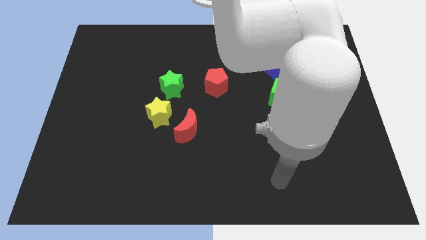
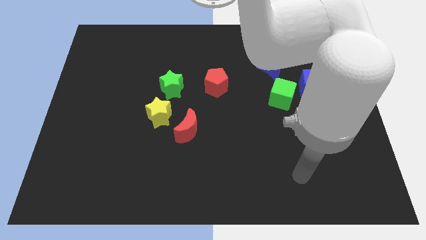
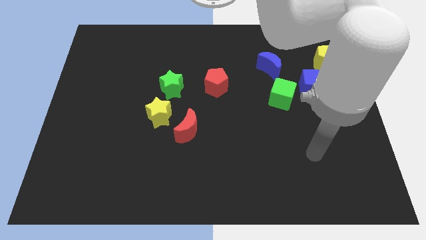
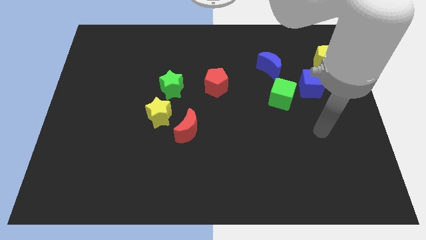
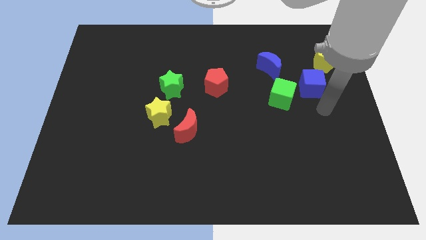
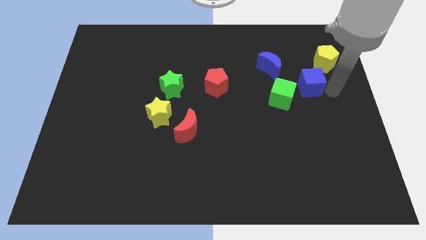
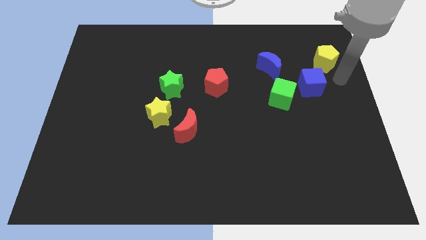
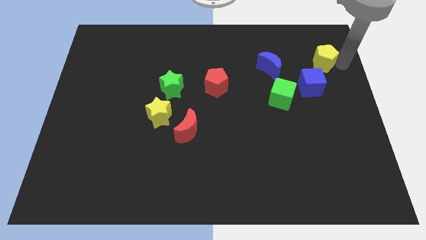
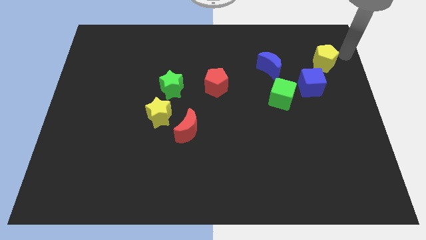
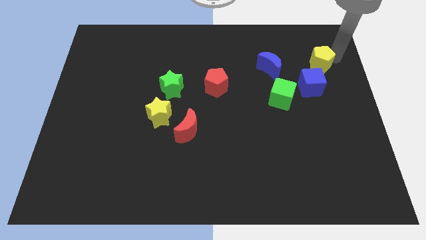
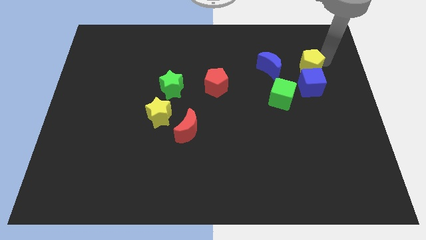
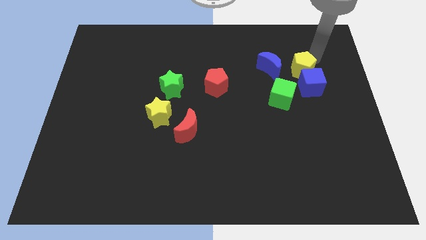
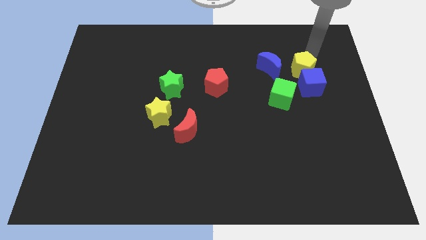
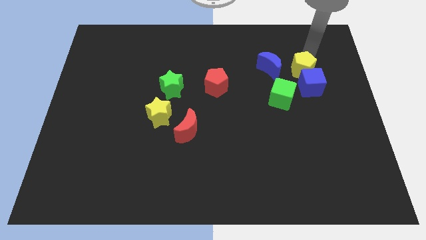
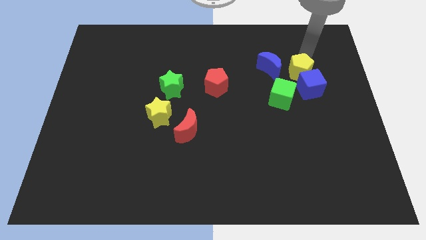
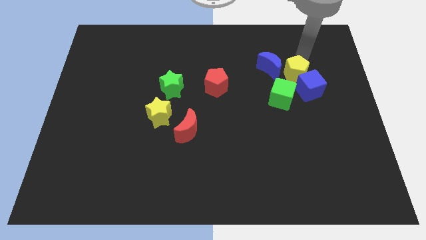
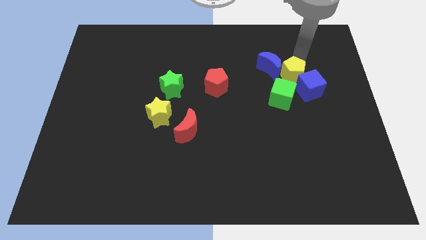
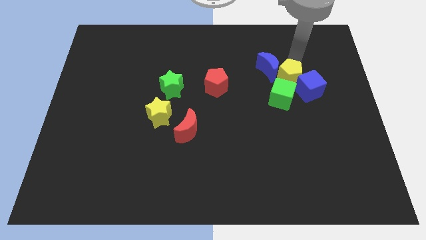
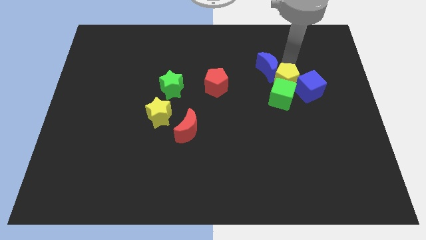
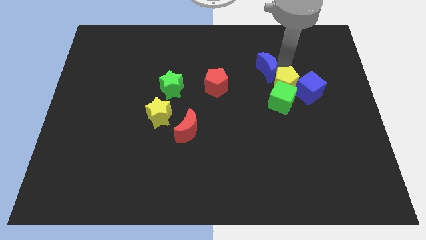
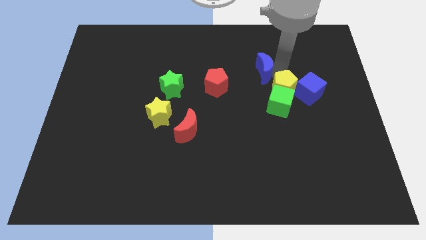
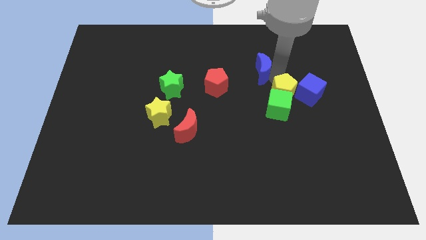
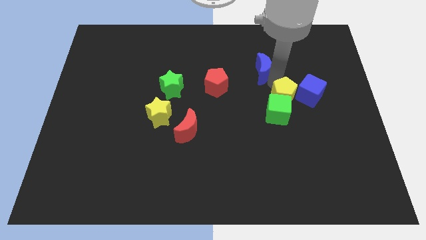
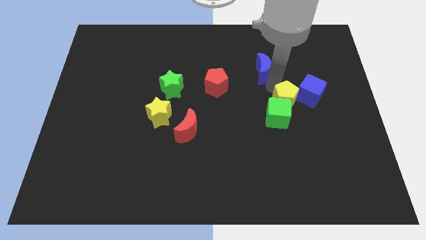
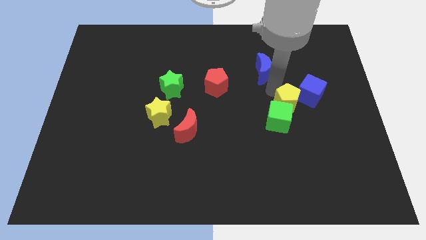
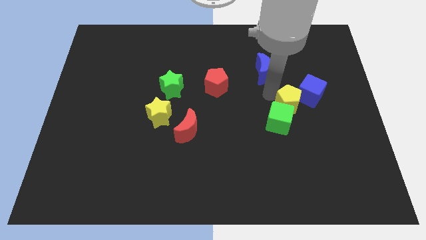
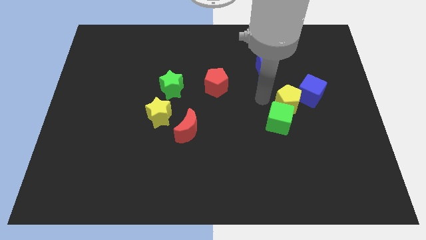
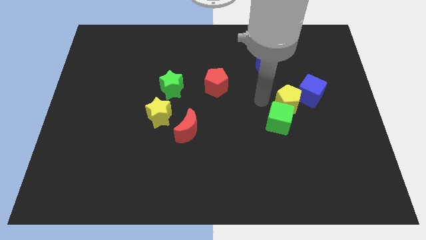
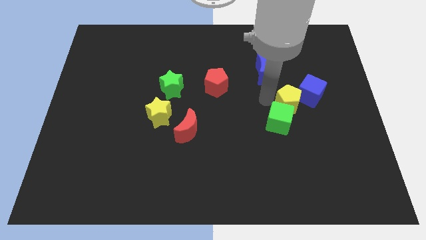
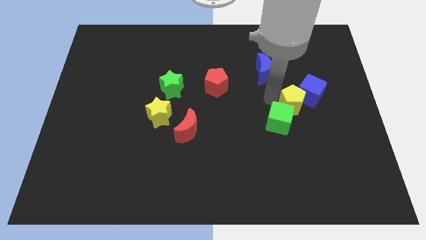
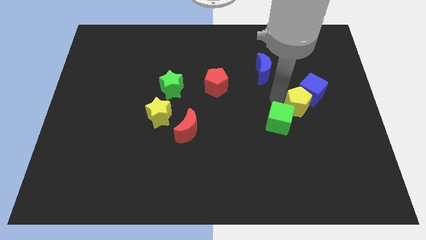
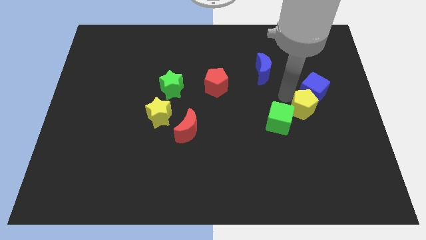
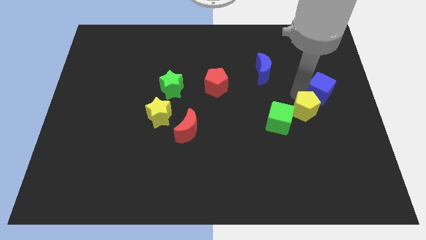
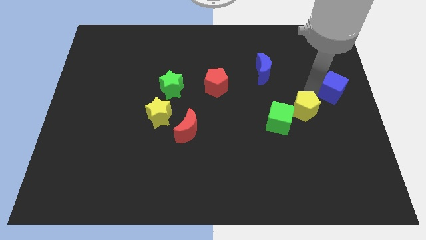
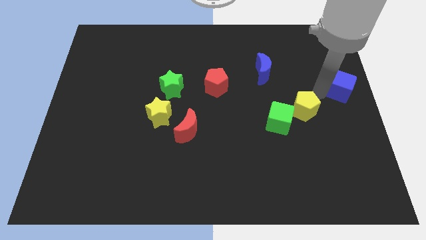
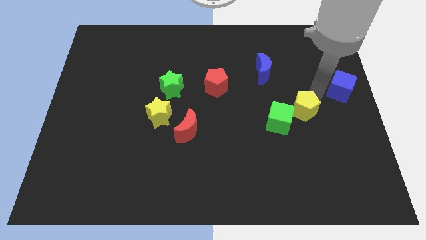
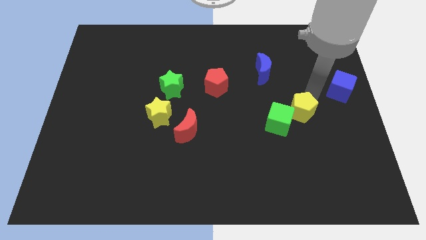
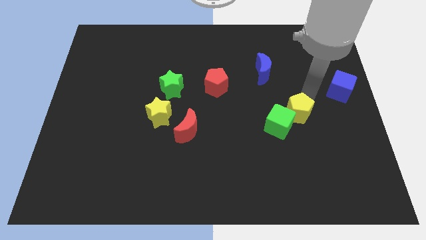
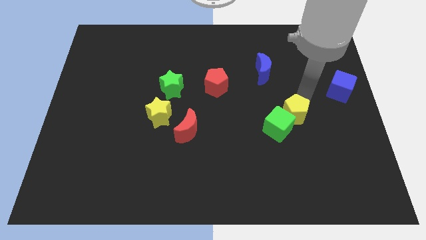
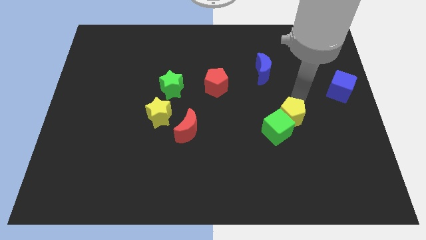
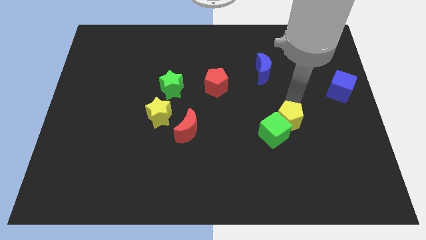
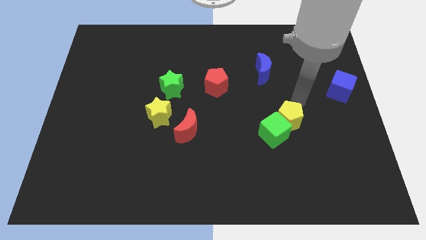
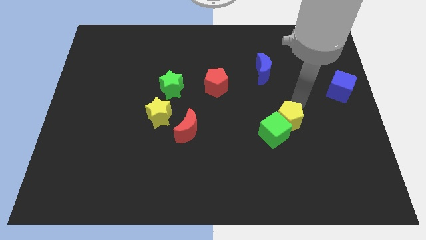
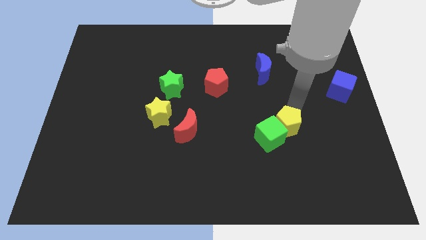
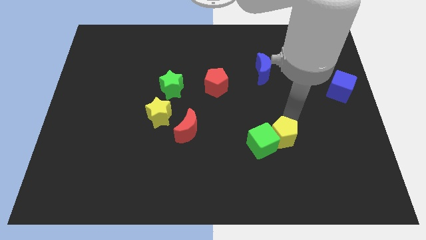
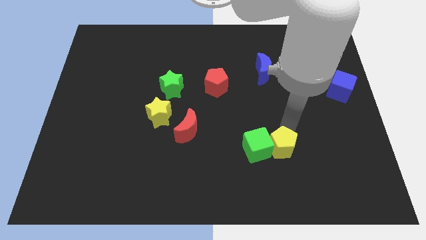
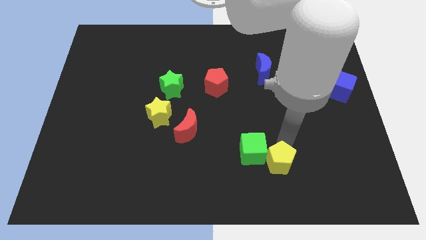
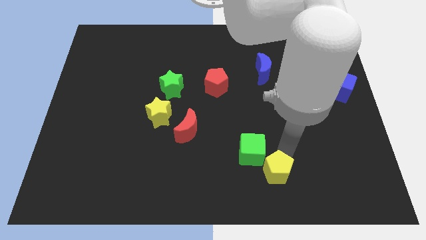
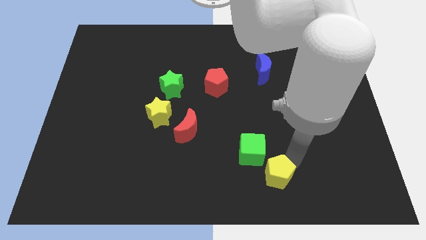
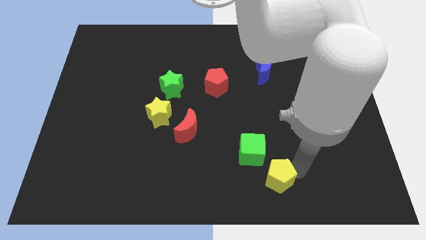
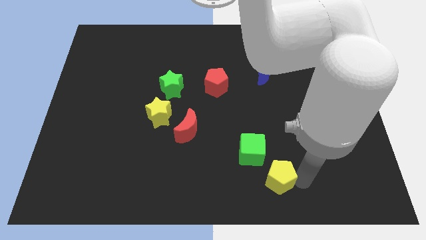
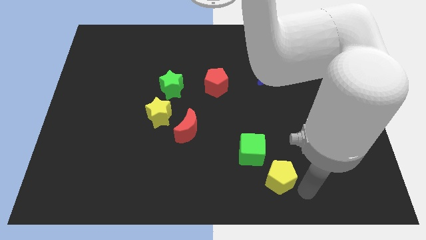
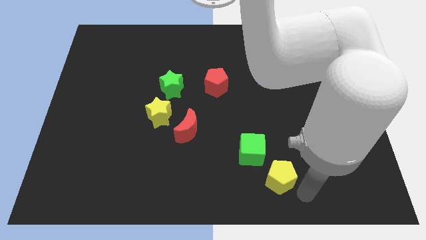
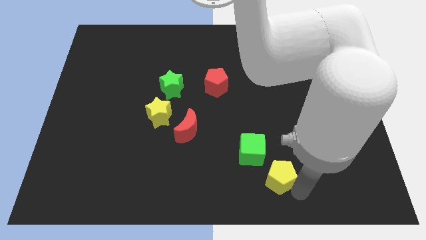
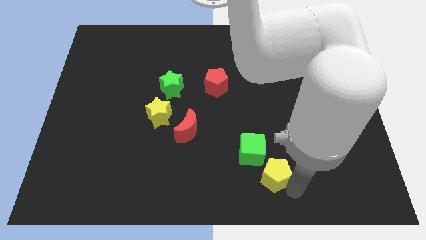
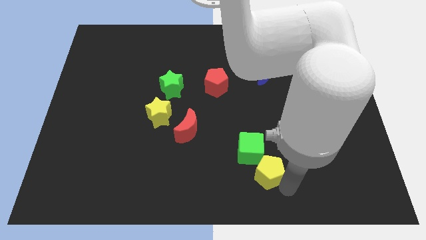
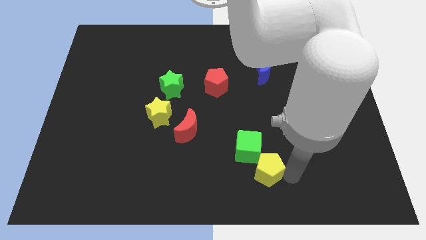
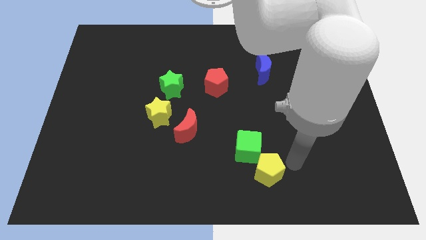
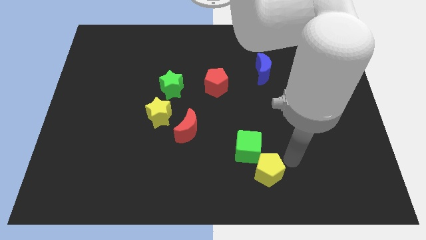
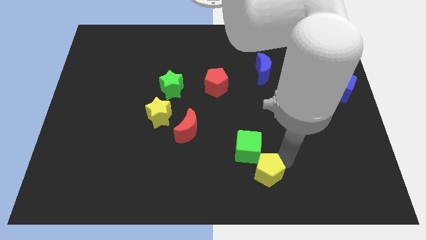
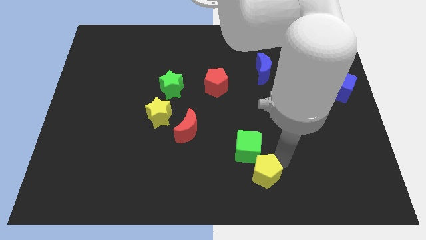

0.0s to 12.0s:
put the yellow pentagon to the bottom
